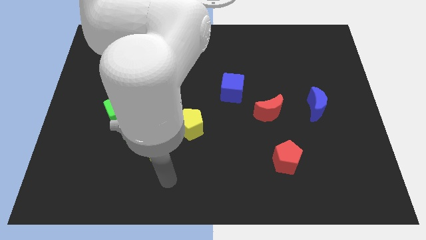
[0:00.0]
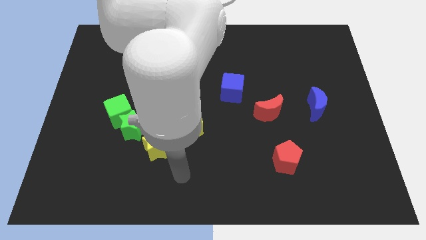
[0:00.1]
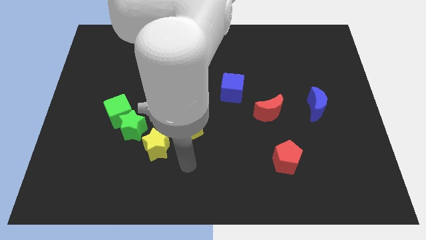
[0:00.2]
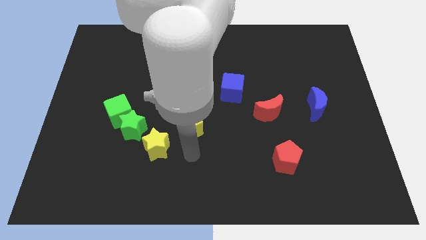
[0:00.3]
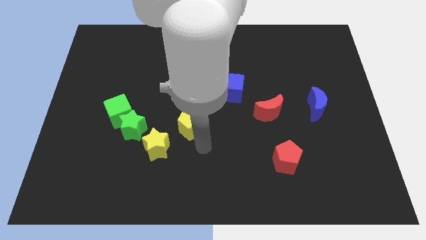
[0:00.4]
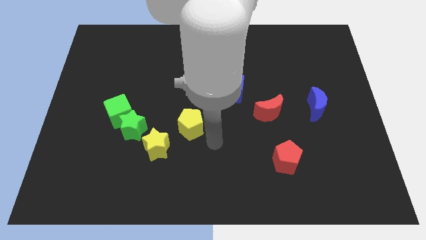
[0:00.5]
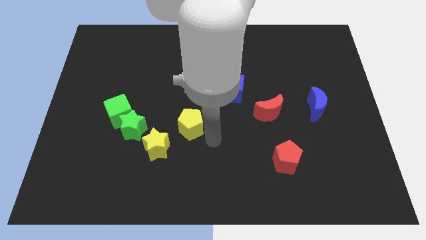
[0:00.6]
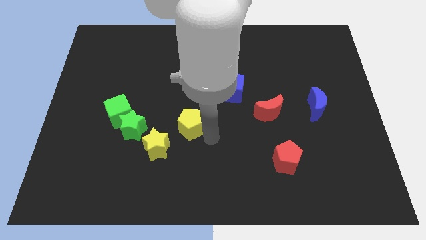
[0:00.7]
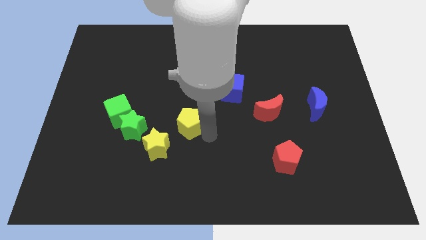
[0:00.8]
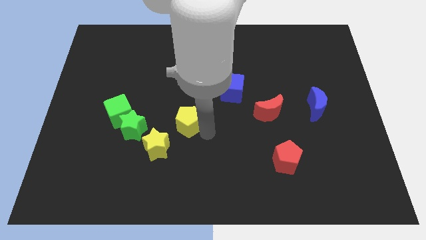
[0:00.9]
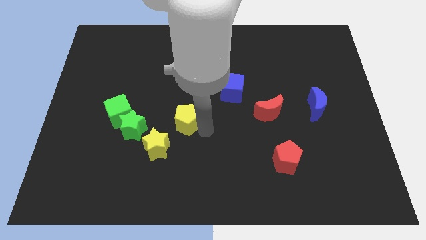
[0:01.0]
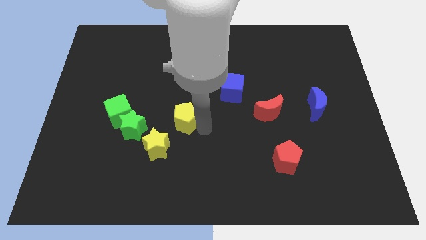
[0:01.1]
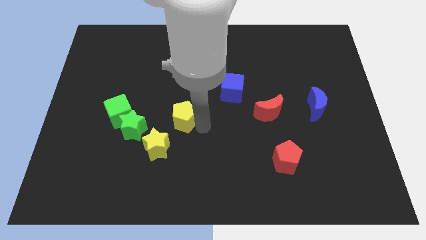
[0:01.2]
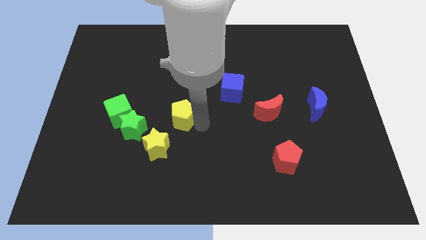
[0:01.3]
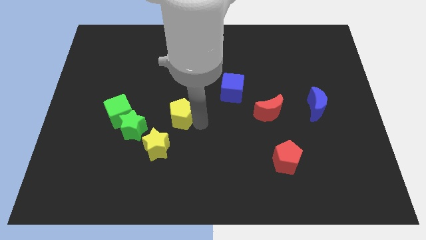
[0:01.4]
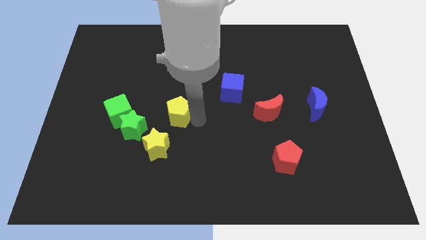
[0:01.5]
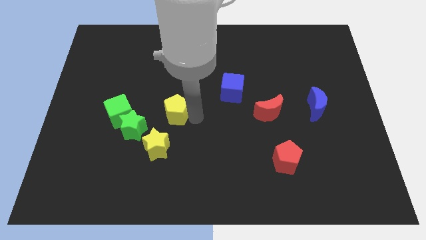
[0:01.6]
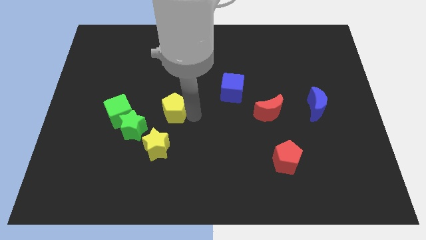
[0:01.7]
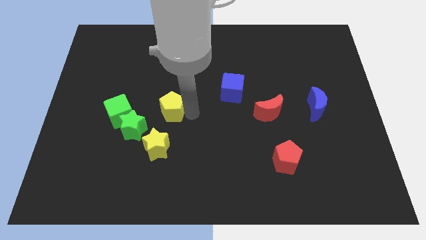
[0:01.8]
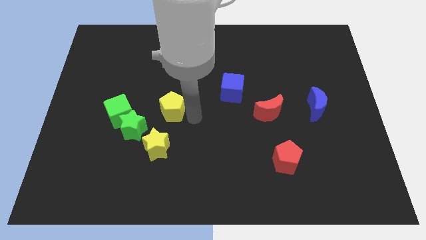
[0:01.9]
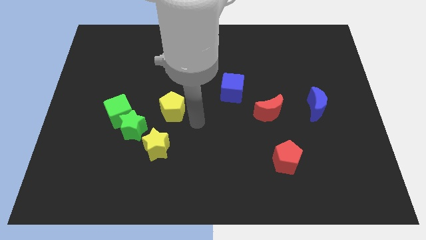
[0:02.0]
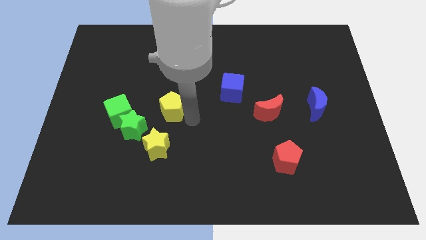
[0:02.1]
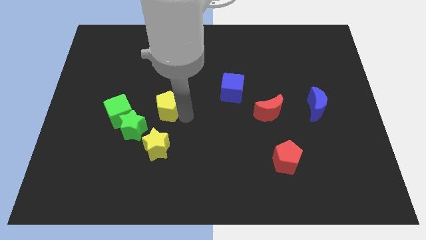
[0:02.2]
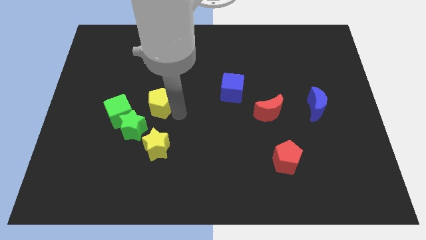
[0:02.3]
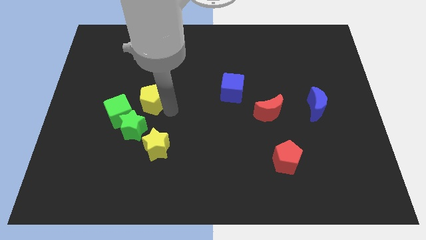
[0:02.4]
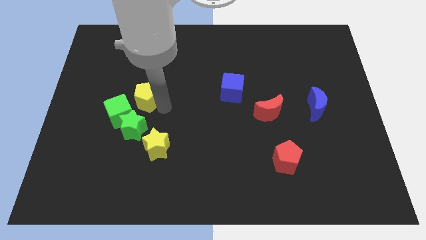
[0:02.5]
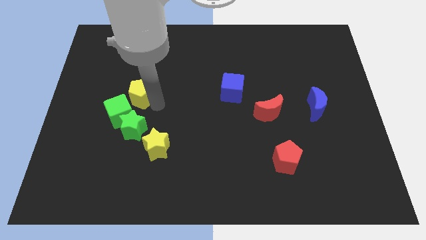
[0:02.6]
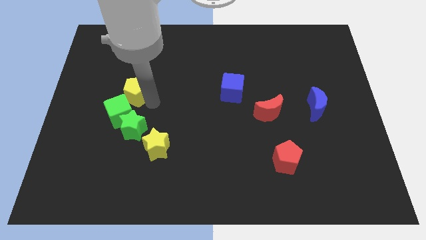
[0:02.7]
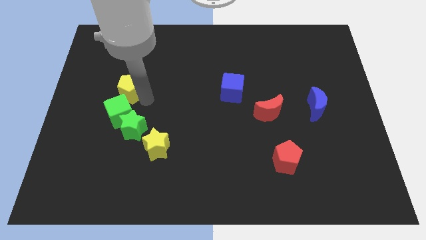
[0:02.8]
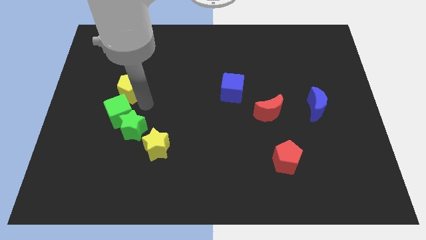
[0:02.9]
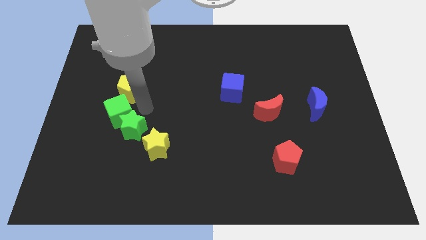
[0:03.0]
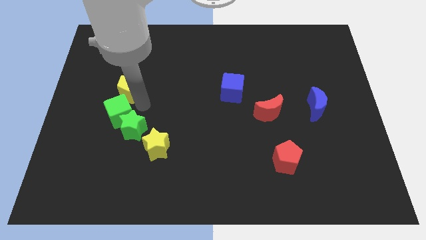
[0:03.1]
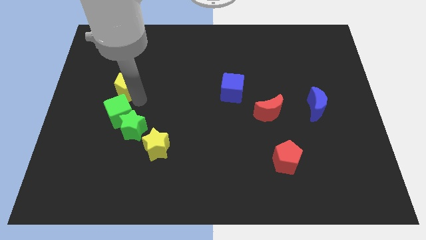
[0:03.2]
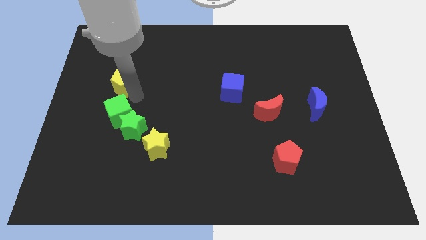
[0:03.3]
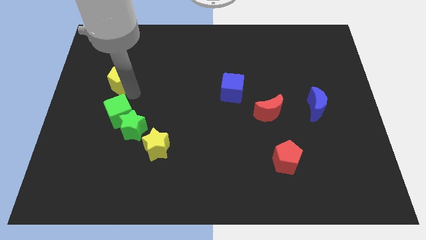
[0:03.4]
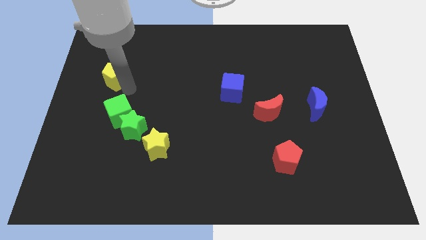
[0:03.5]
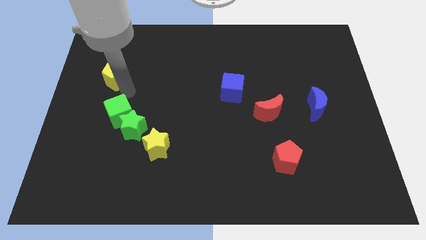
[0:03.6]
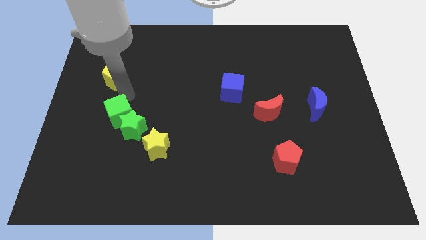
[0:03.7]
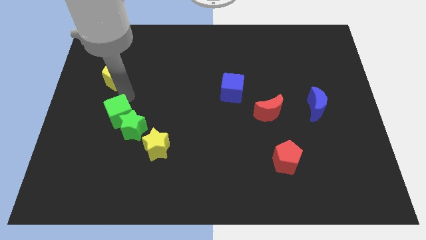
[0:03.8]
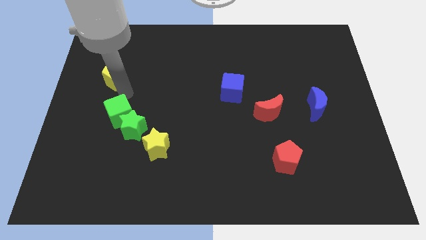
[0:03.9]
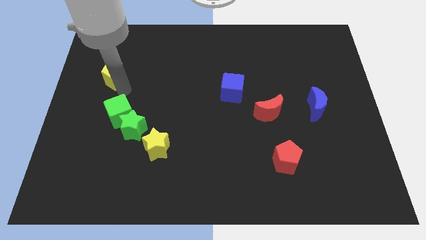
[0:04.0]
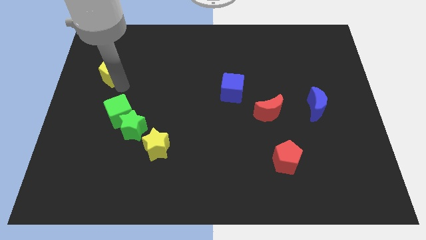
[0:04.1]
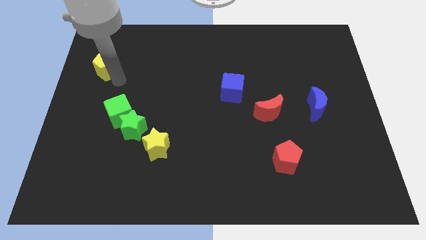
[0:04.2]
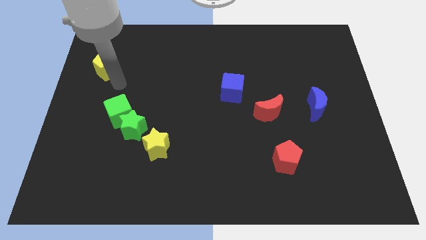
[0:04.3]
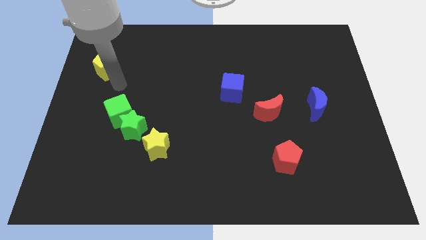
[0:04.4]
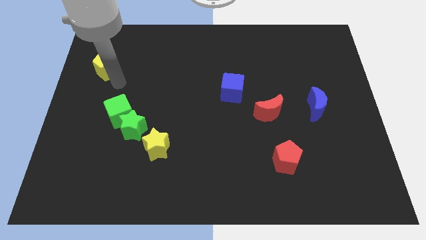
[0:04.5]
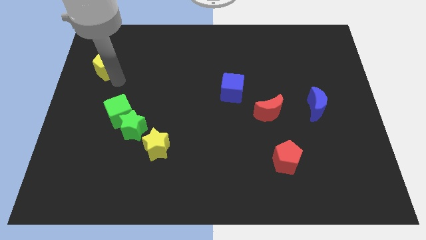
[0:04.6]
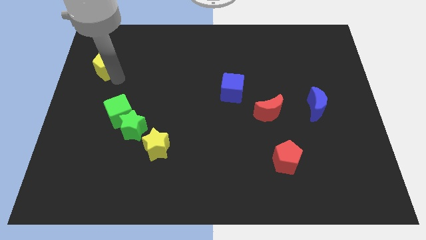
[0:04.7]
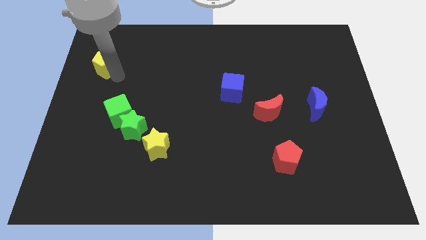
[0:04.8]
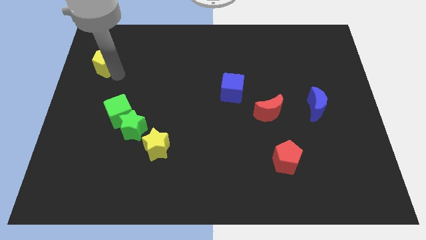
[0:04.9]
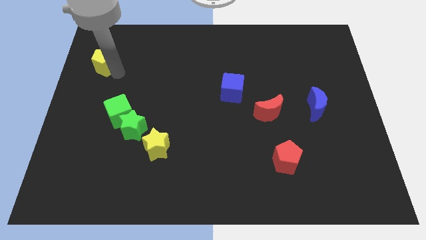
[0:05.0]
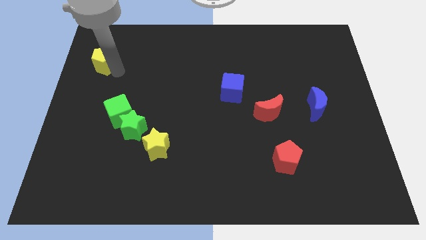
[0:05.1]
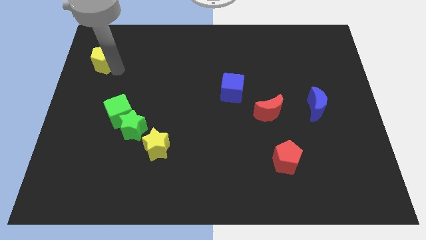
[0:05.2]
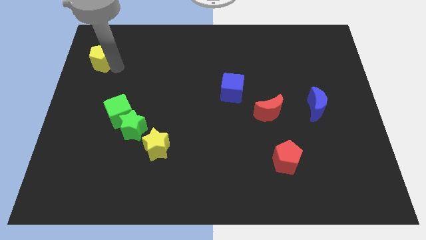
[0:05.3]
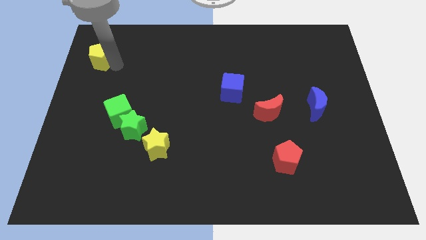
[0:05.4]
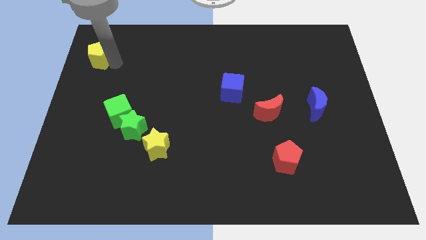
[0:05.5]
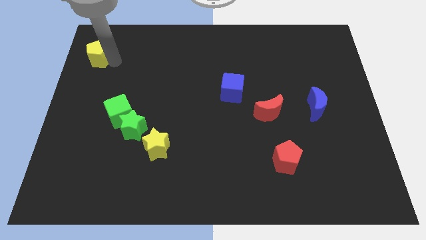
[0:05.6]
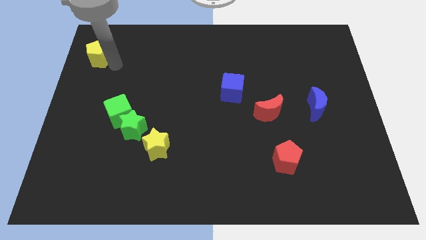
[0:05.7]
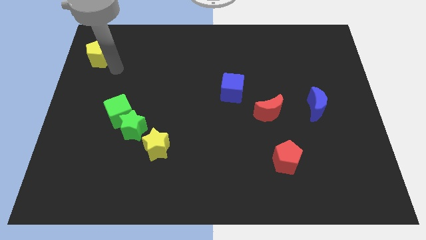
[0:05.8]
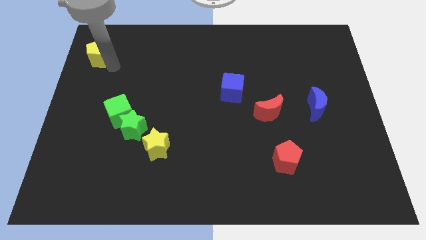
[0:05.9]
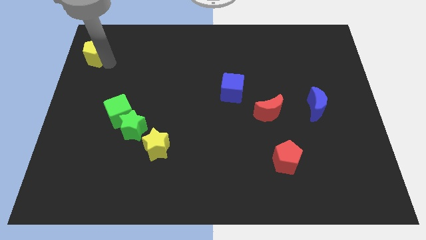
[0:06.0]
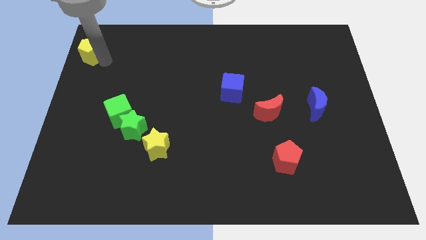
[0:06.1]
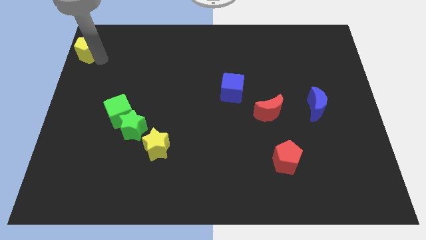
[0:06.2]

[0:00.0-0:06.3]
move the yellow pentagon to the top left corner

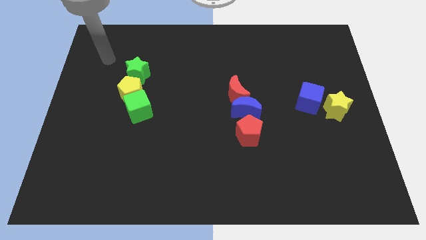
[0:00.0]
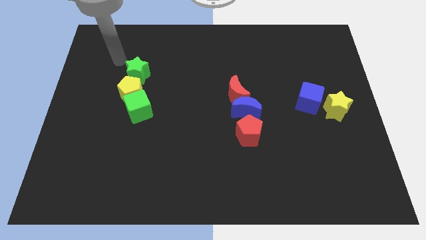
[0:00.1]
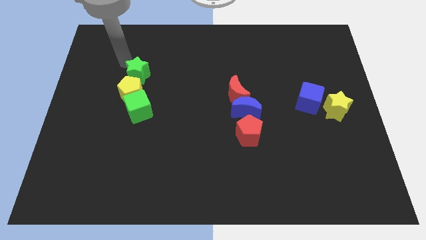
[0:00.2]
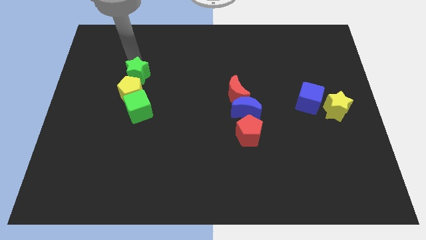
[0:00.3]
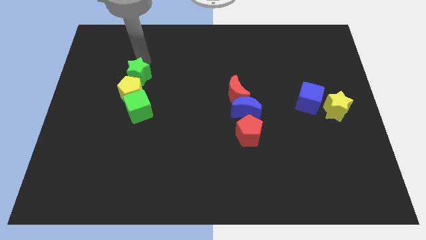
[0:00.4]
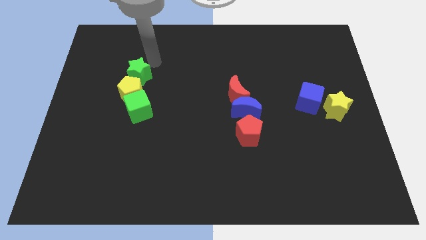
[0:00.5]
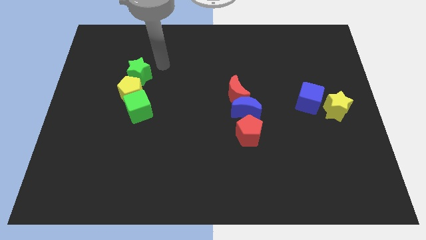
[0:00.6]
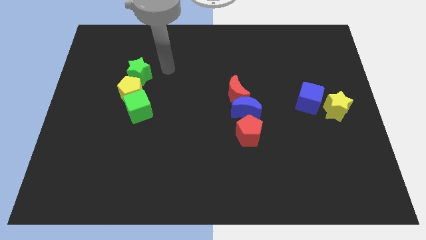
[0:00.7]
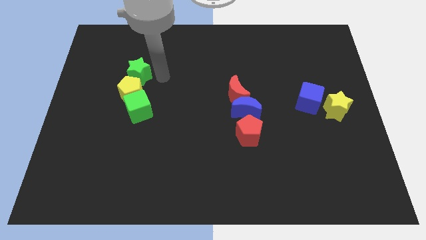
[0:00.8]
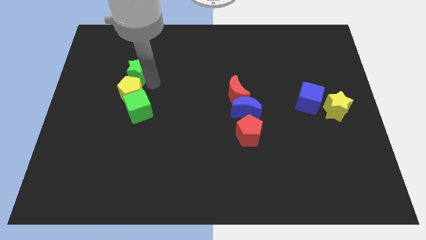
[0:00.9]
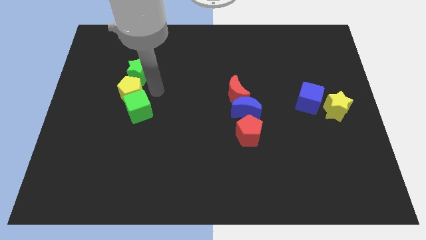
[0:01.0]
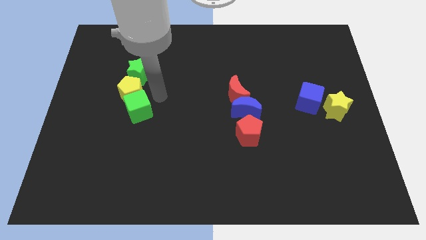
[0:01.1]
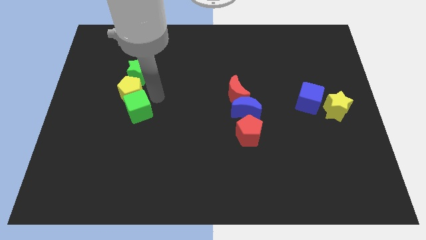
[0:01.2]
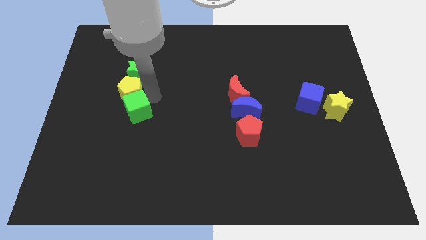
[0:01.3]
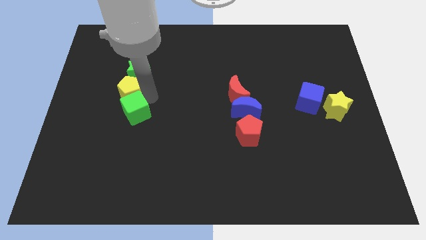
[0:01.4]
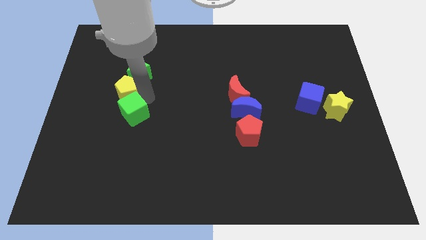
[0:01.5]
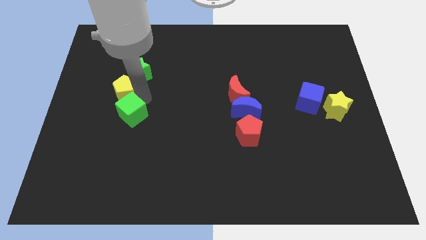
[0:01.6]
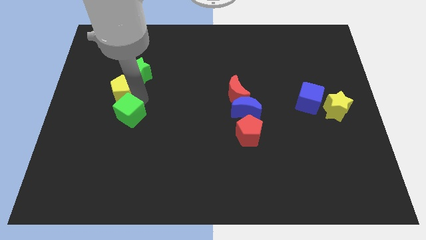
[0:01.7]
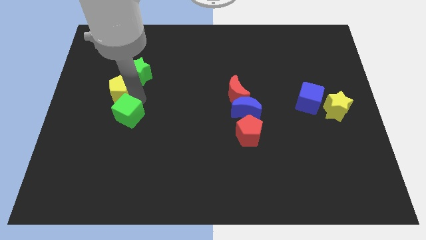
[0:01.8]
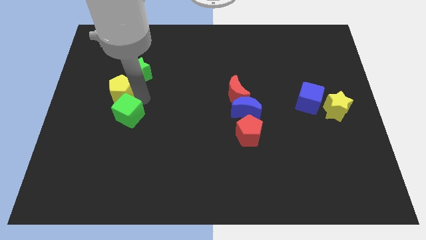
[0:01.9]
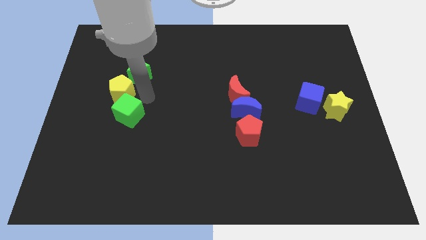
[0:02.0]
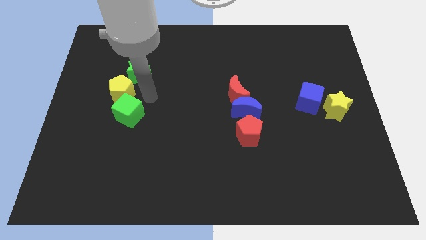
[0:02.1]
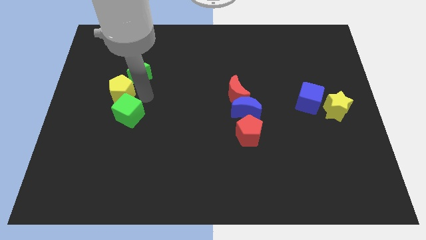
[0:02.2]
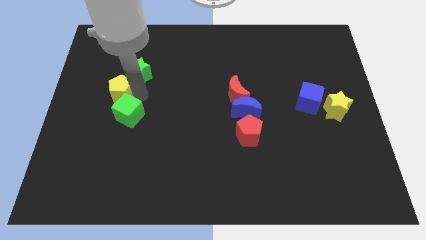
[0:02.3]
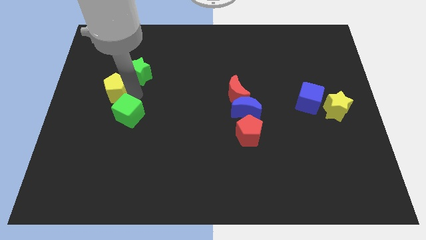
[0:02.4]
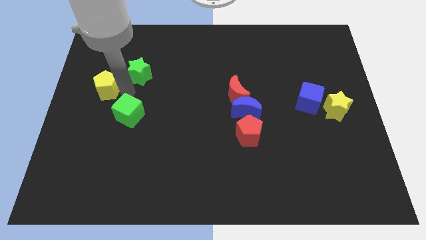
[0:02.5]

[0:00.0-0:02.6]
put the yellow pentagon to the left side of the board
